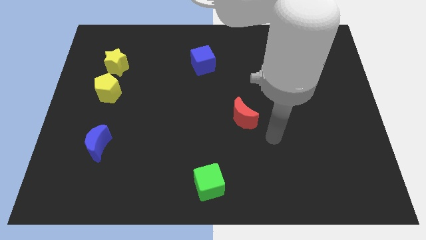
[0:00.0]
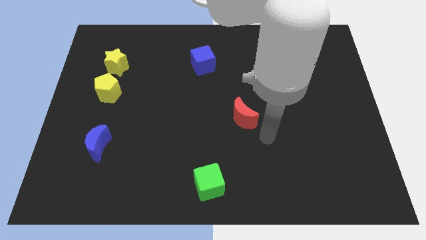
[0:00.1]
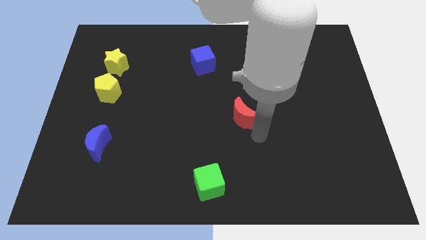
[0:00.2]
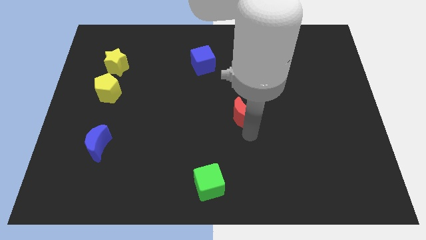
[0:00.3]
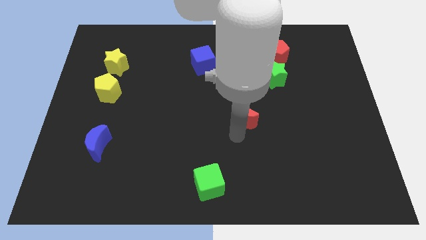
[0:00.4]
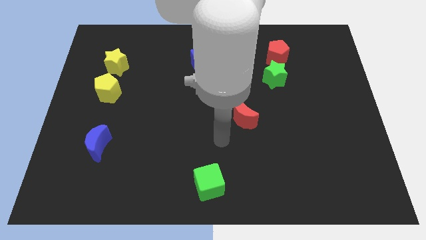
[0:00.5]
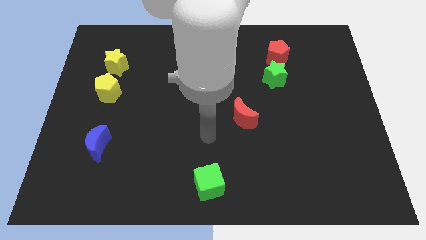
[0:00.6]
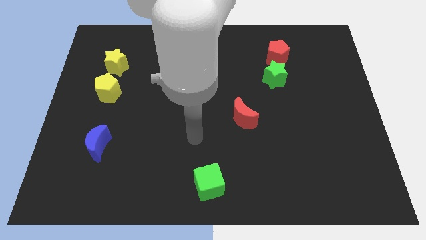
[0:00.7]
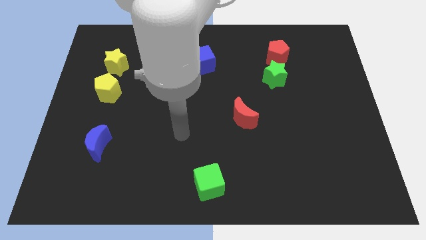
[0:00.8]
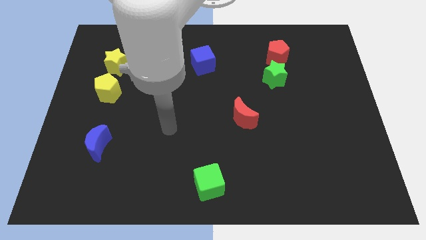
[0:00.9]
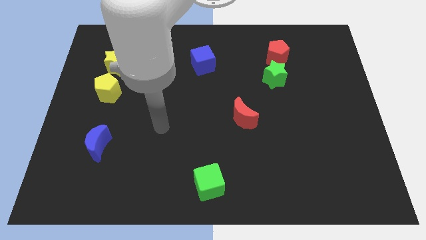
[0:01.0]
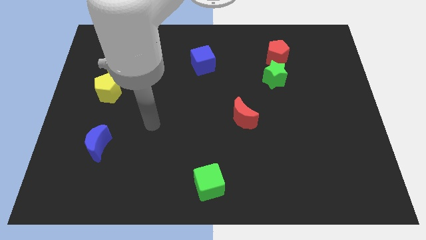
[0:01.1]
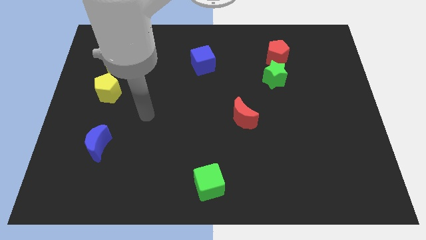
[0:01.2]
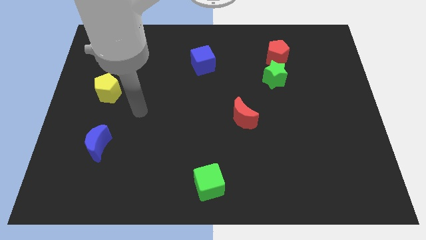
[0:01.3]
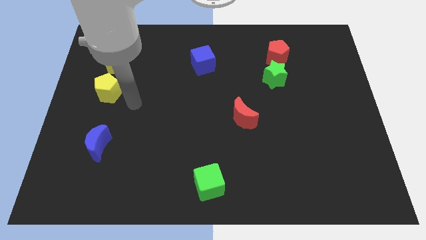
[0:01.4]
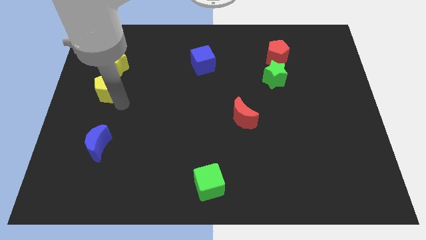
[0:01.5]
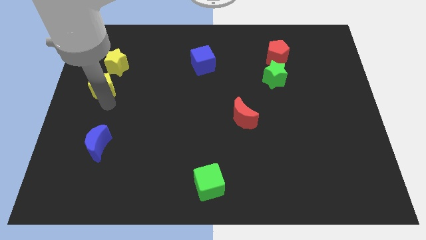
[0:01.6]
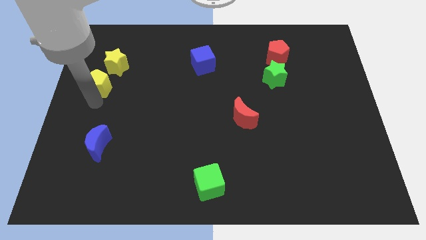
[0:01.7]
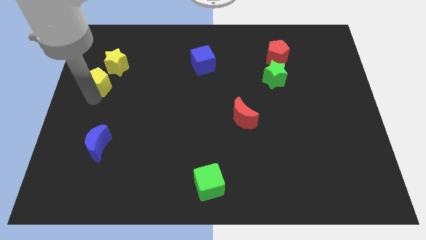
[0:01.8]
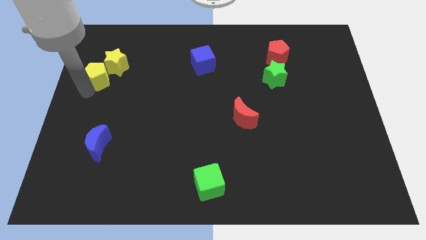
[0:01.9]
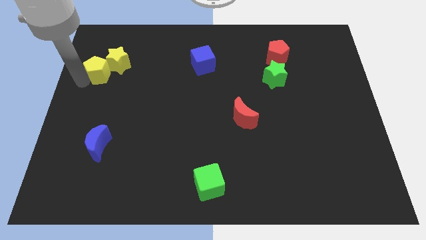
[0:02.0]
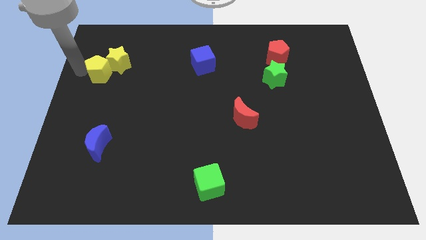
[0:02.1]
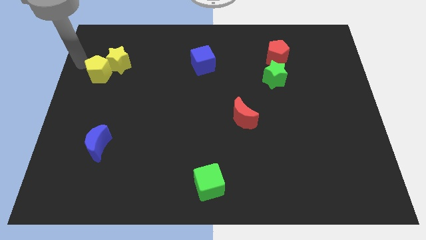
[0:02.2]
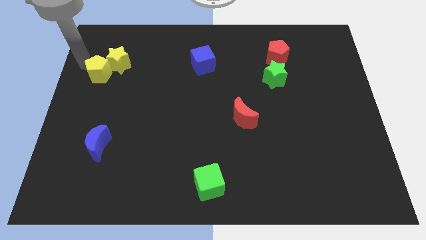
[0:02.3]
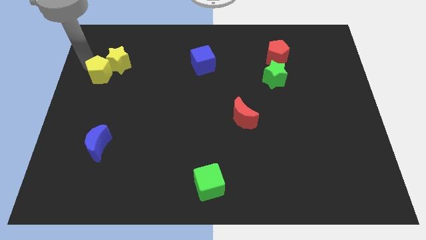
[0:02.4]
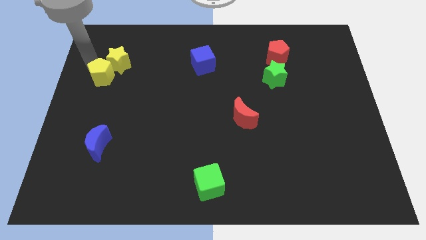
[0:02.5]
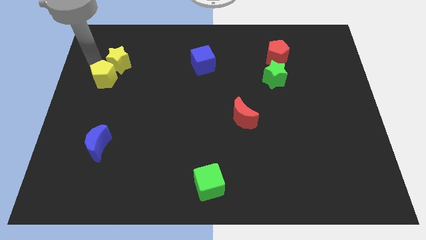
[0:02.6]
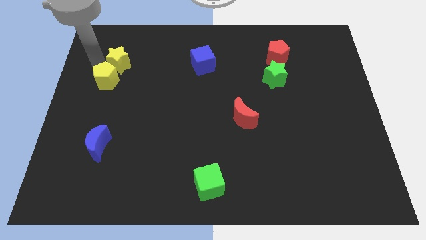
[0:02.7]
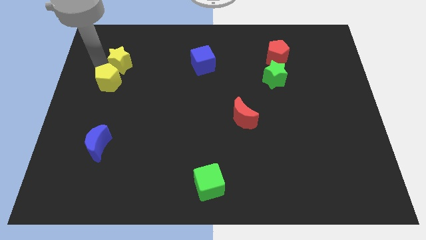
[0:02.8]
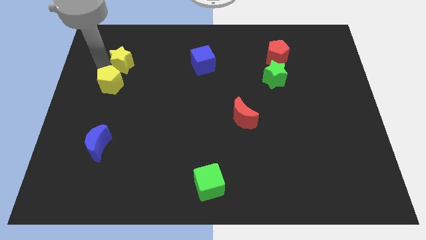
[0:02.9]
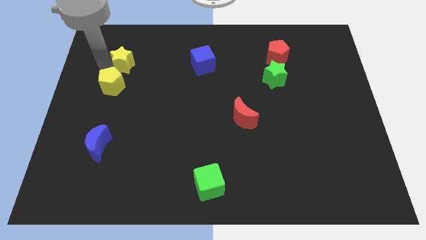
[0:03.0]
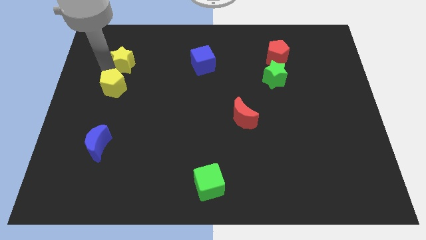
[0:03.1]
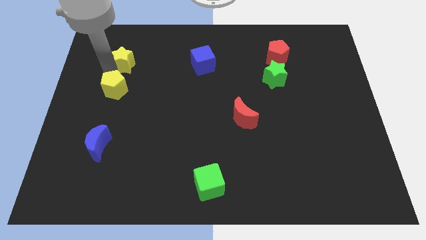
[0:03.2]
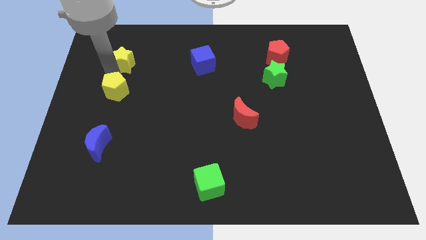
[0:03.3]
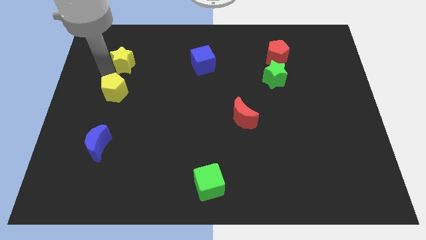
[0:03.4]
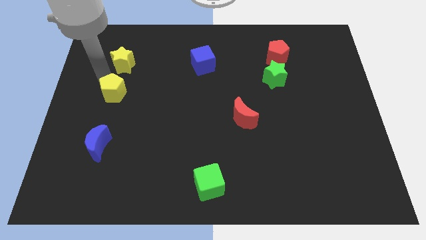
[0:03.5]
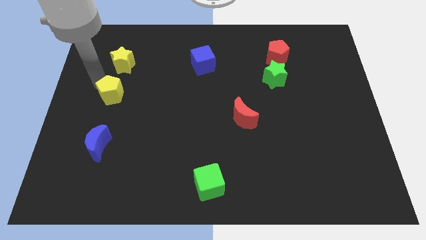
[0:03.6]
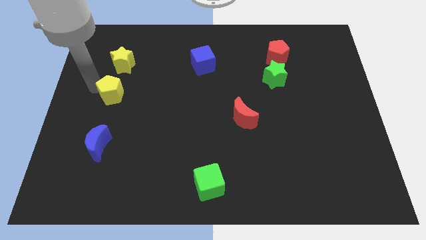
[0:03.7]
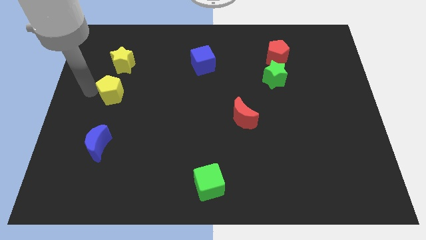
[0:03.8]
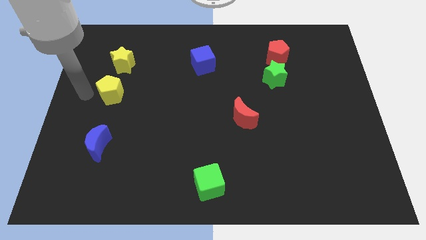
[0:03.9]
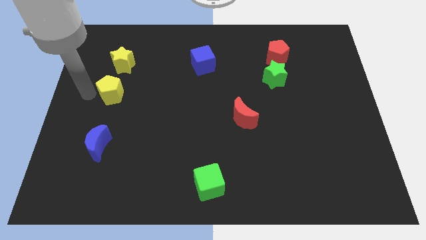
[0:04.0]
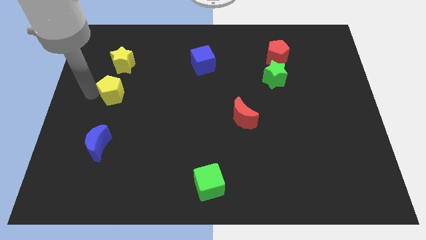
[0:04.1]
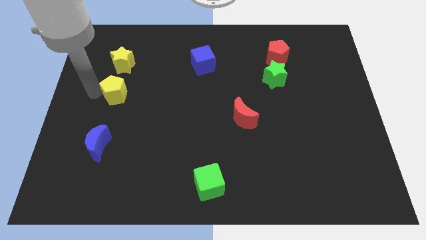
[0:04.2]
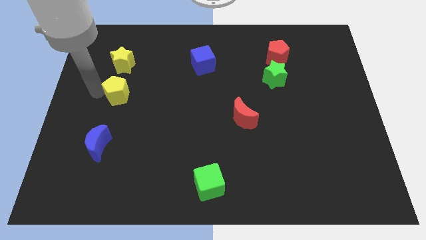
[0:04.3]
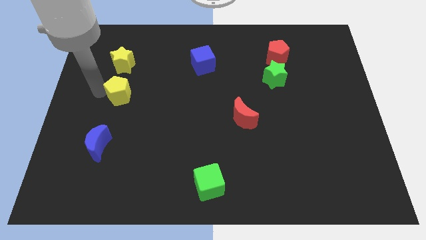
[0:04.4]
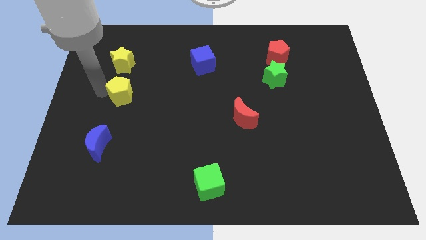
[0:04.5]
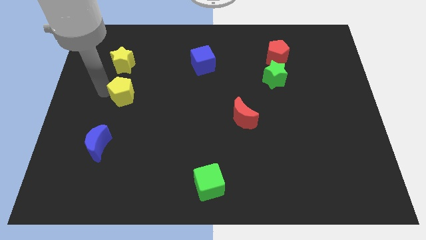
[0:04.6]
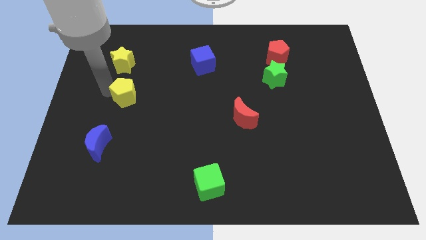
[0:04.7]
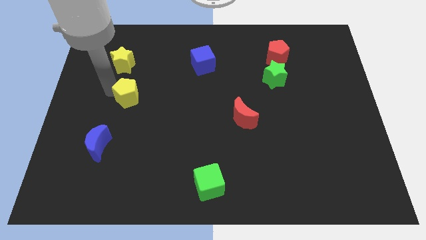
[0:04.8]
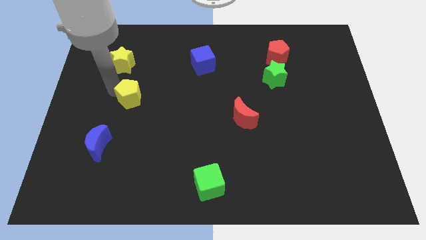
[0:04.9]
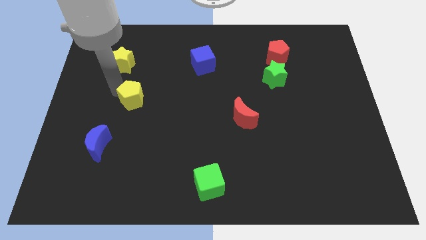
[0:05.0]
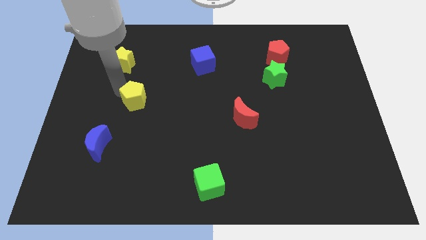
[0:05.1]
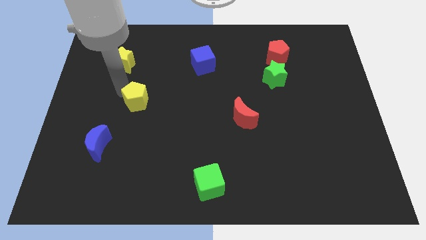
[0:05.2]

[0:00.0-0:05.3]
move the yellow pentagon right slightly

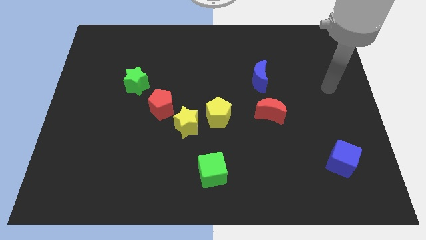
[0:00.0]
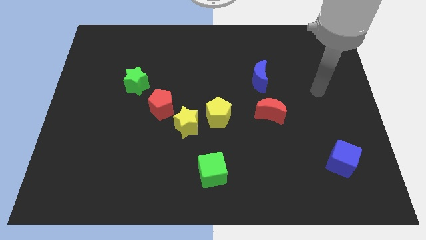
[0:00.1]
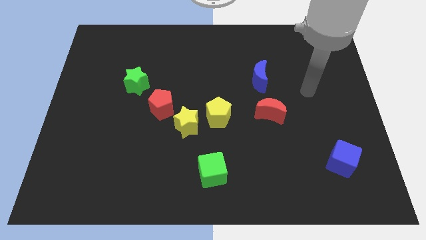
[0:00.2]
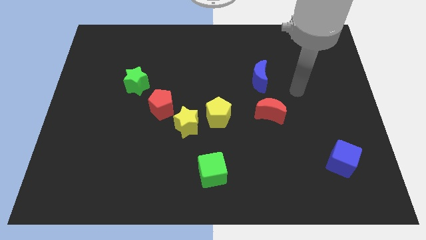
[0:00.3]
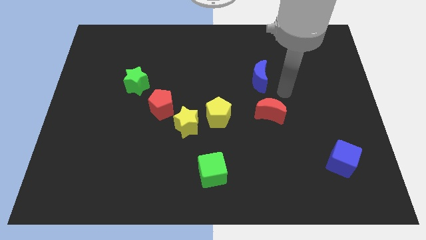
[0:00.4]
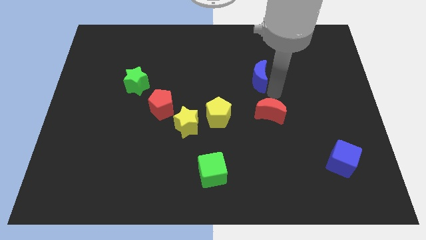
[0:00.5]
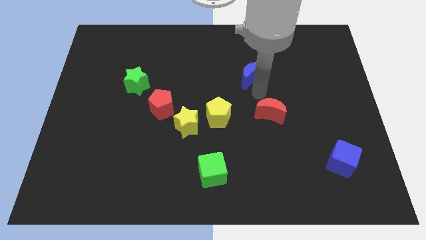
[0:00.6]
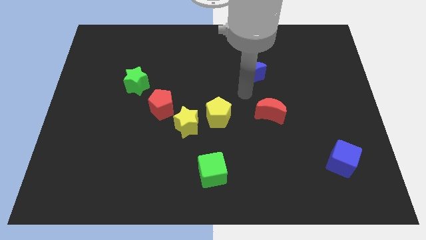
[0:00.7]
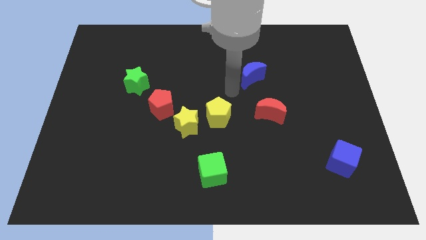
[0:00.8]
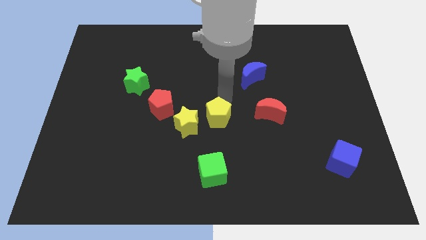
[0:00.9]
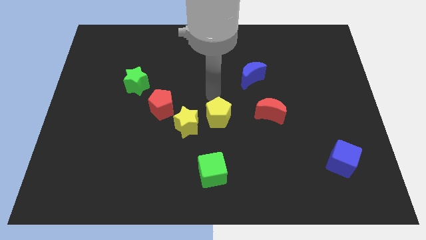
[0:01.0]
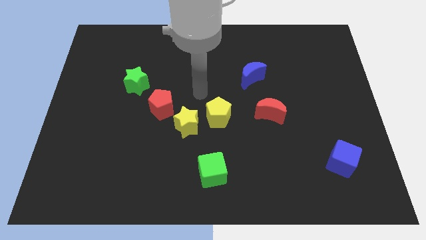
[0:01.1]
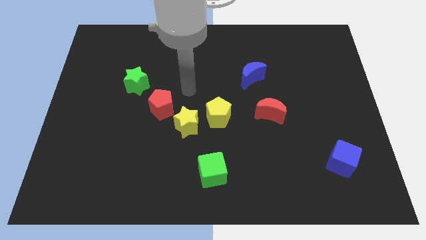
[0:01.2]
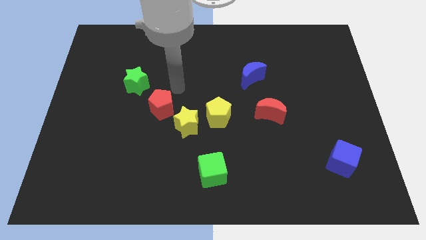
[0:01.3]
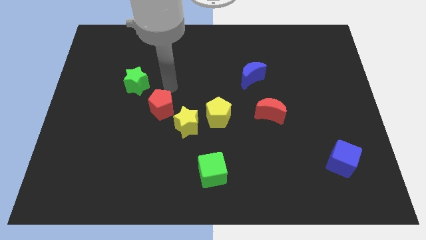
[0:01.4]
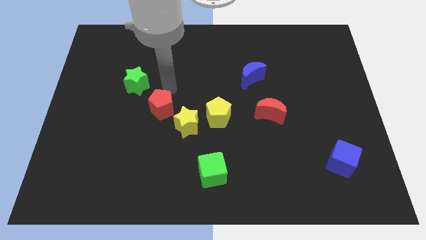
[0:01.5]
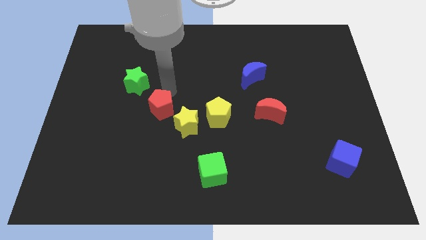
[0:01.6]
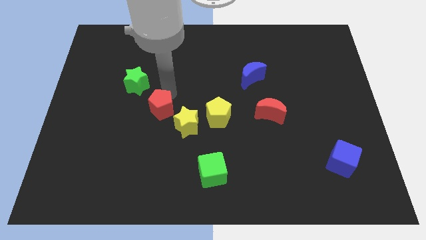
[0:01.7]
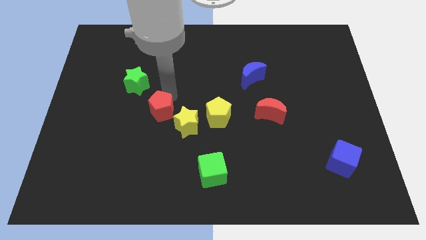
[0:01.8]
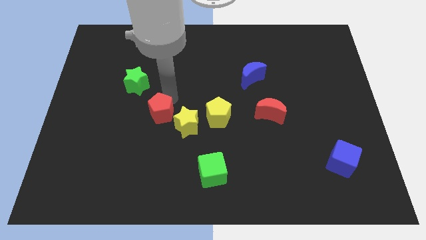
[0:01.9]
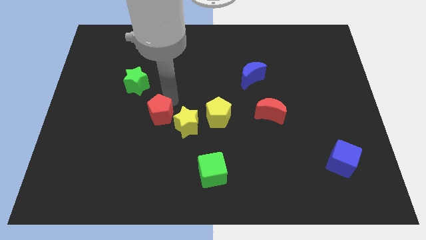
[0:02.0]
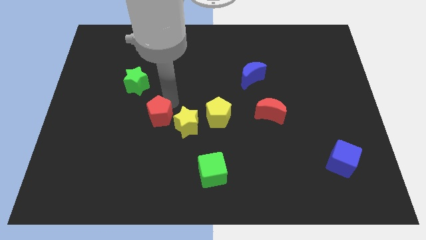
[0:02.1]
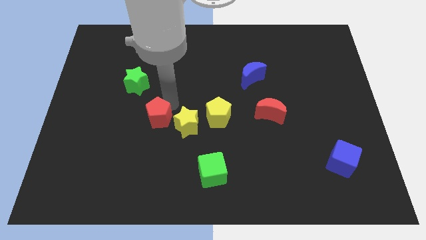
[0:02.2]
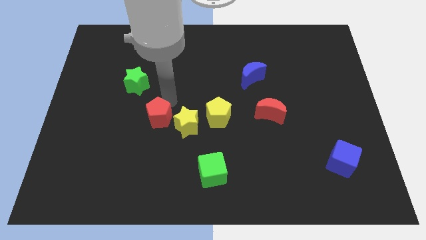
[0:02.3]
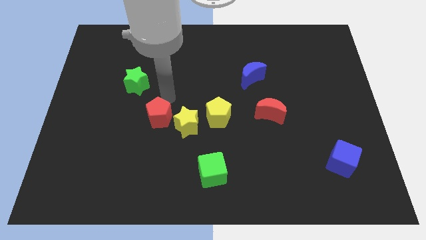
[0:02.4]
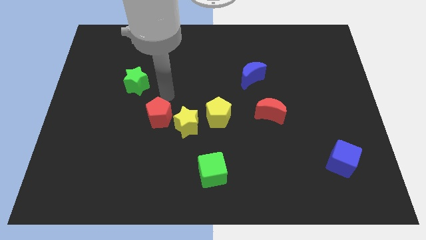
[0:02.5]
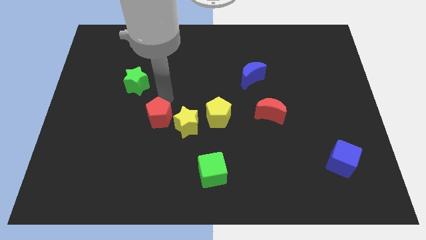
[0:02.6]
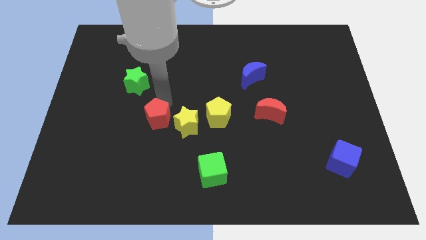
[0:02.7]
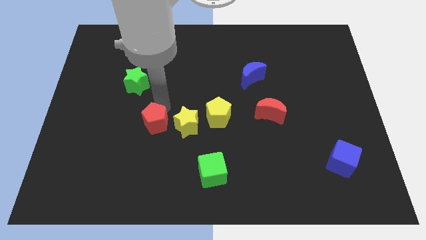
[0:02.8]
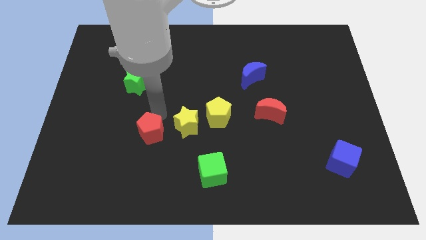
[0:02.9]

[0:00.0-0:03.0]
move the red pentagon down slightly
